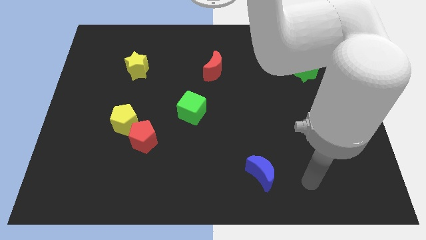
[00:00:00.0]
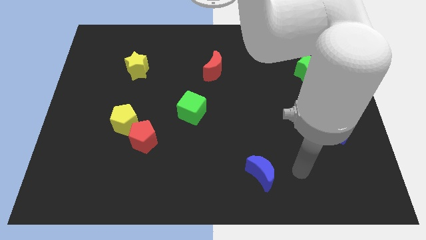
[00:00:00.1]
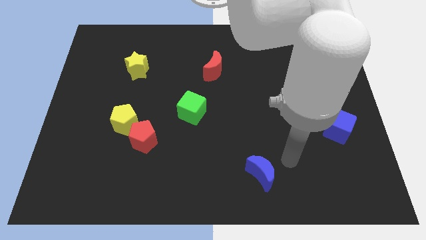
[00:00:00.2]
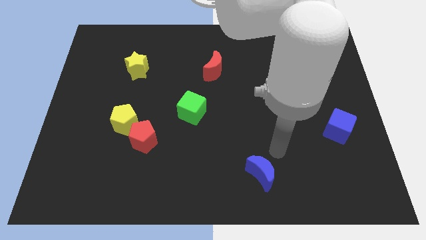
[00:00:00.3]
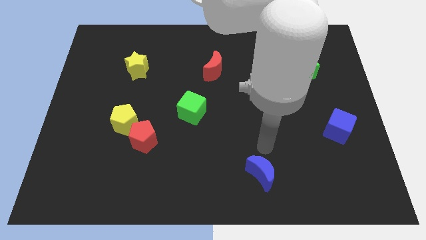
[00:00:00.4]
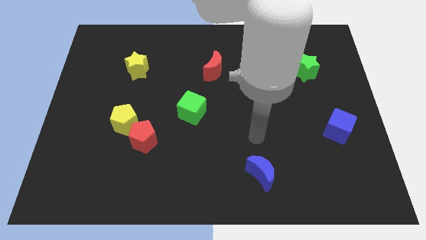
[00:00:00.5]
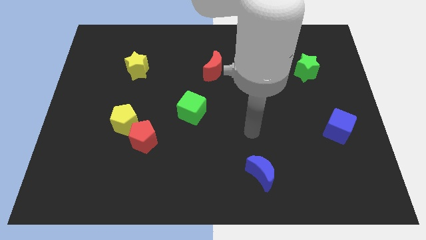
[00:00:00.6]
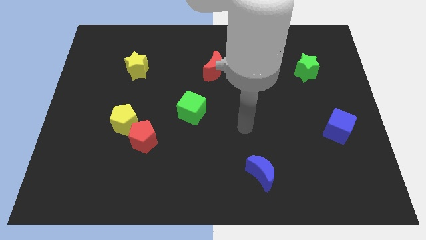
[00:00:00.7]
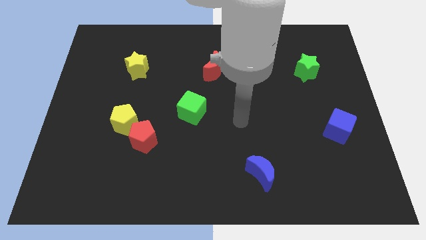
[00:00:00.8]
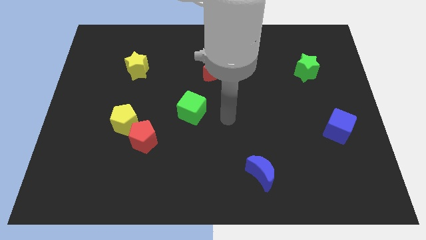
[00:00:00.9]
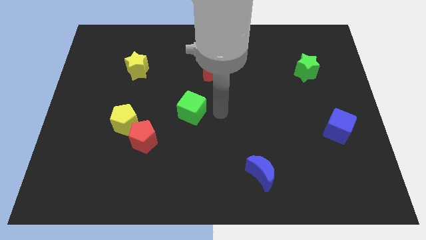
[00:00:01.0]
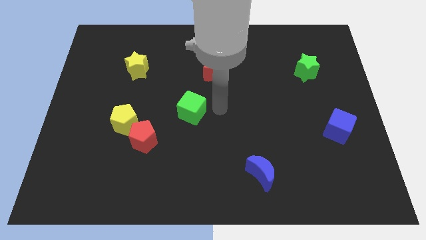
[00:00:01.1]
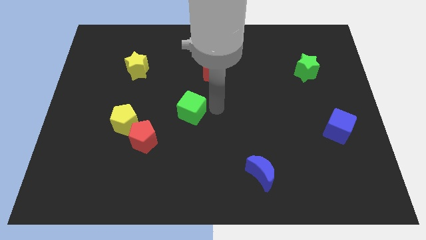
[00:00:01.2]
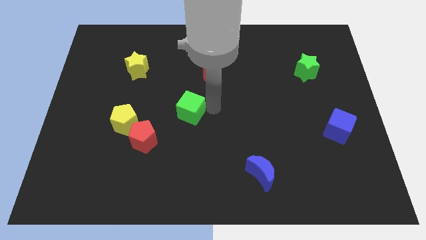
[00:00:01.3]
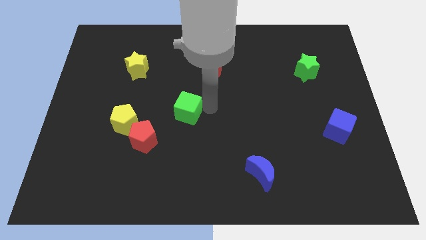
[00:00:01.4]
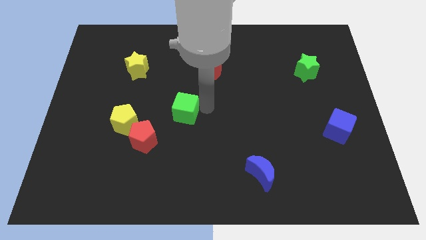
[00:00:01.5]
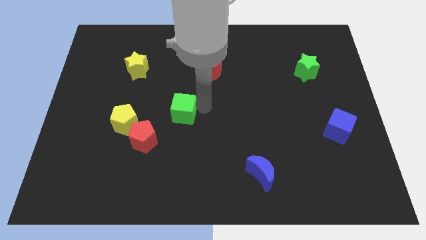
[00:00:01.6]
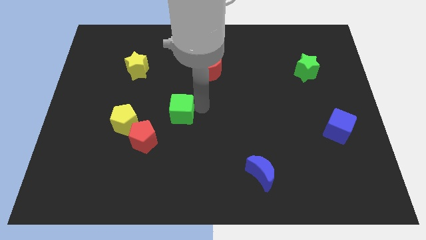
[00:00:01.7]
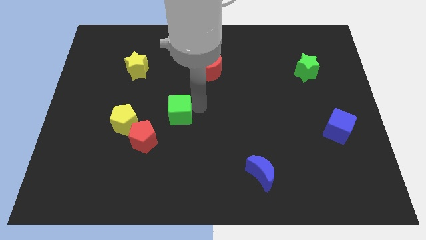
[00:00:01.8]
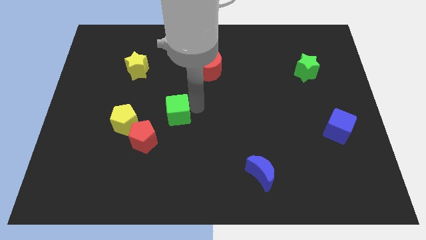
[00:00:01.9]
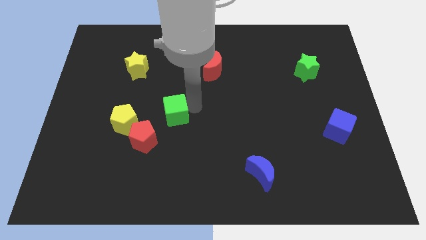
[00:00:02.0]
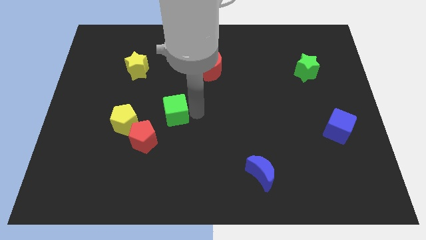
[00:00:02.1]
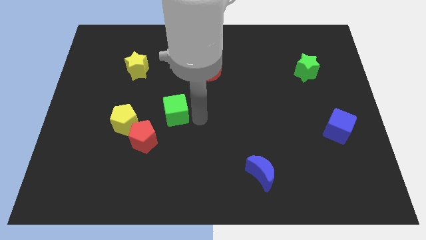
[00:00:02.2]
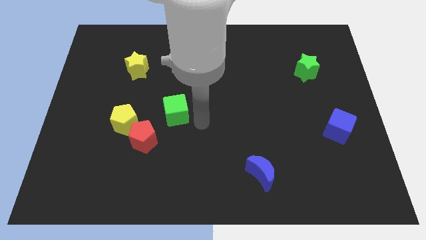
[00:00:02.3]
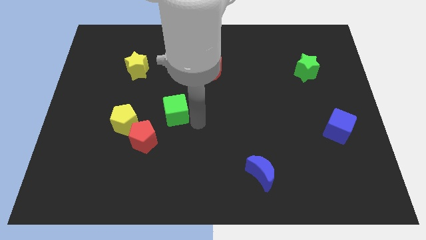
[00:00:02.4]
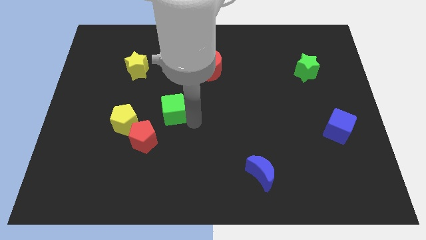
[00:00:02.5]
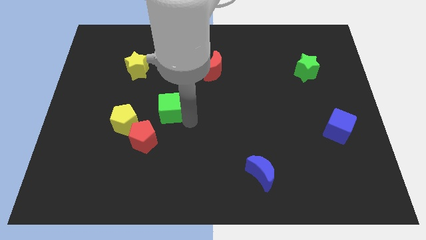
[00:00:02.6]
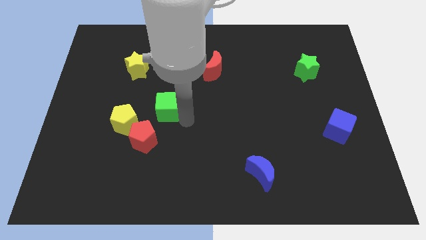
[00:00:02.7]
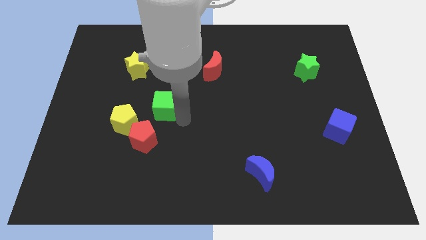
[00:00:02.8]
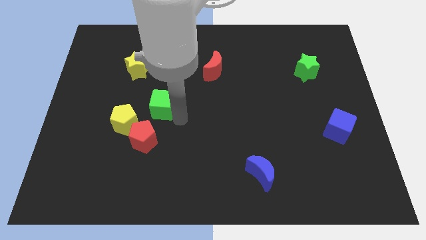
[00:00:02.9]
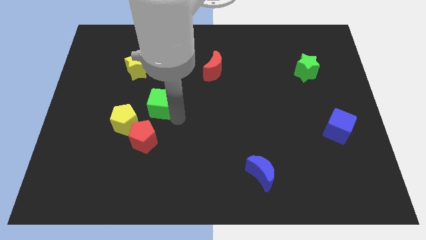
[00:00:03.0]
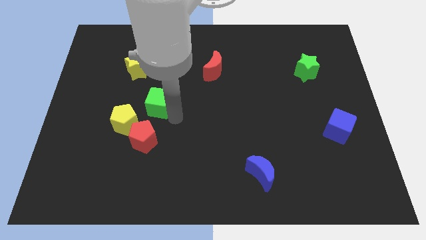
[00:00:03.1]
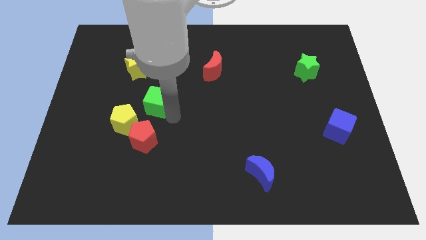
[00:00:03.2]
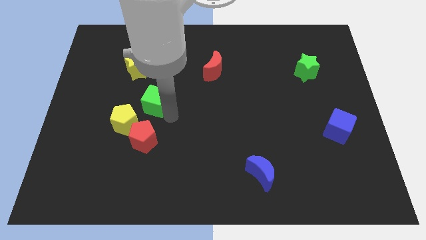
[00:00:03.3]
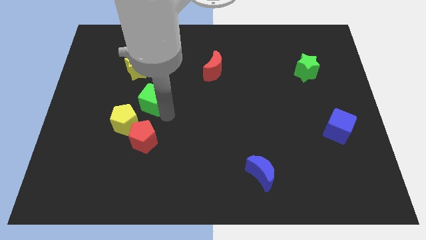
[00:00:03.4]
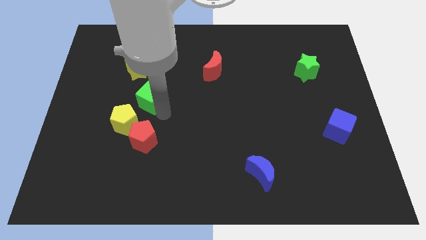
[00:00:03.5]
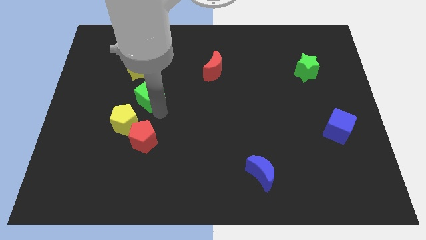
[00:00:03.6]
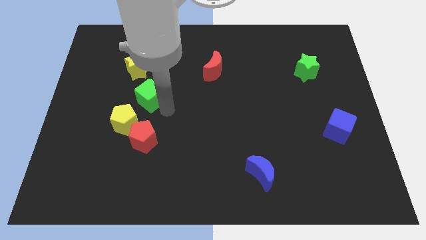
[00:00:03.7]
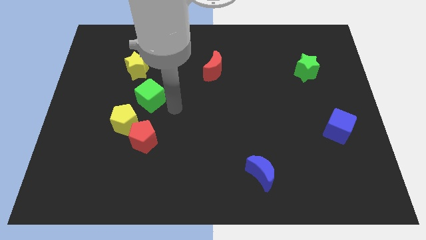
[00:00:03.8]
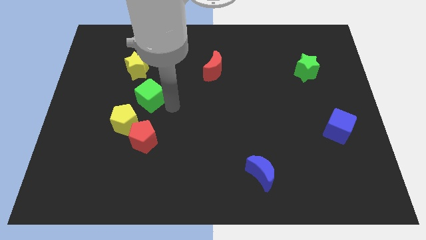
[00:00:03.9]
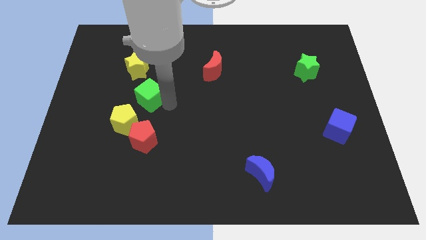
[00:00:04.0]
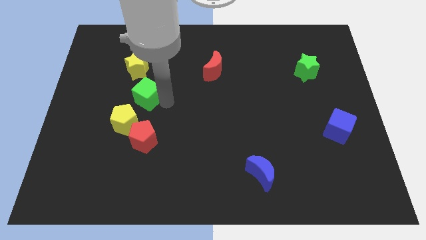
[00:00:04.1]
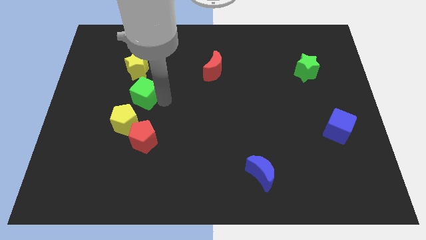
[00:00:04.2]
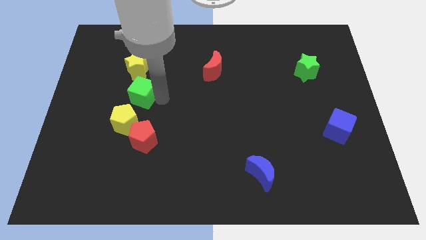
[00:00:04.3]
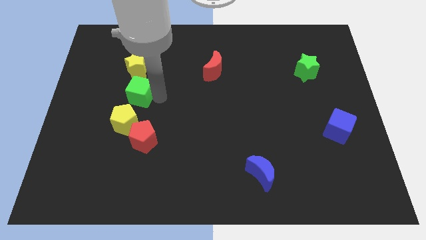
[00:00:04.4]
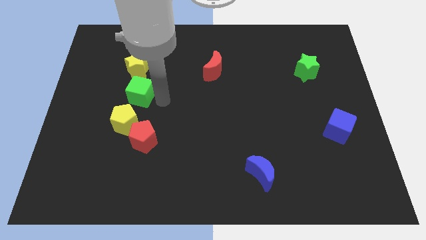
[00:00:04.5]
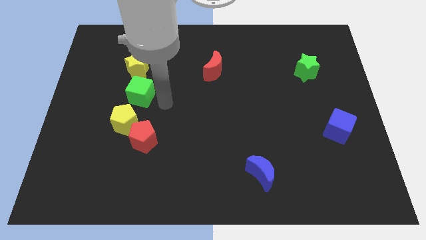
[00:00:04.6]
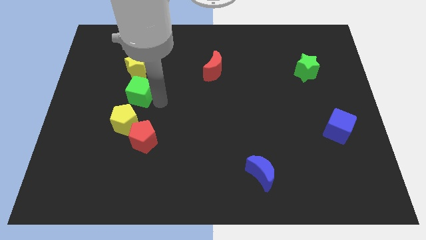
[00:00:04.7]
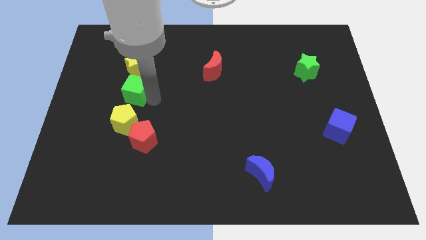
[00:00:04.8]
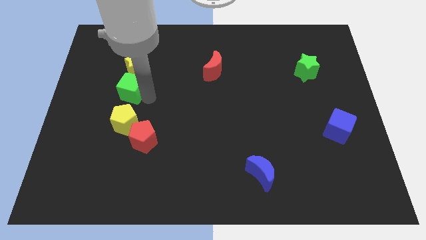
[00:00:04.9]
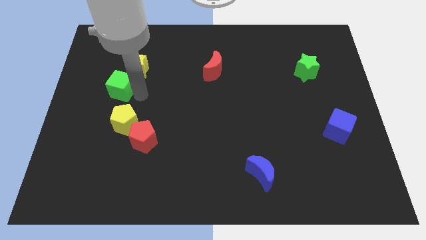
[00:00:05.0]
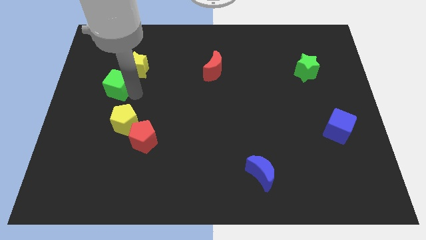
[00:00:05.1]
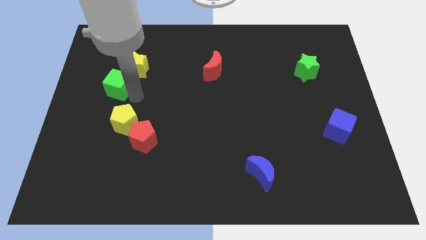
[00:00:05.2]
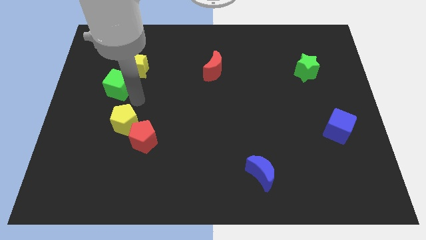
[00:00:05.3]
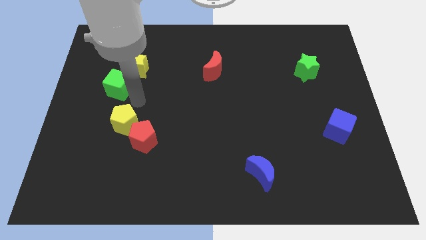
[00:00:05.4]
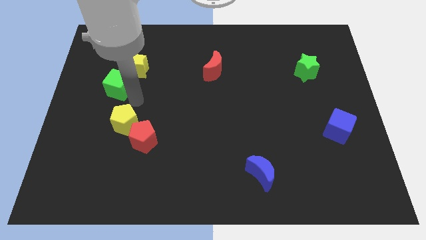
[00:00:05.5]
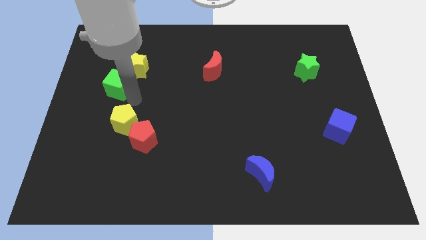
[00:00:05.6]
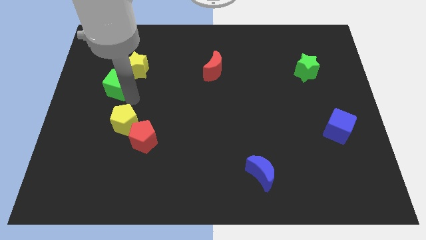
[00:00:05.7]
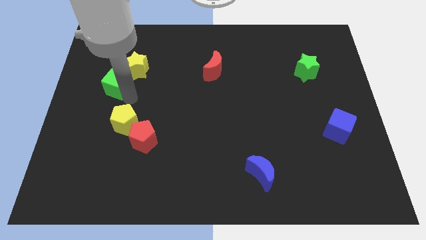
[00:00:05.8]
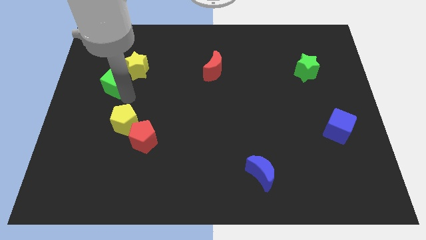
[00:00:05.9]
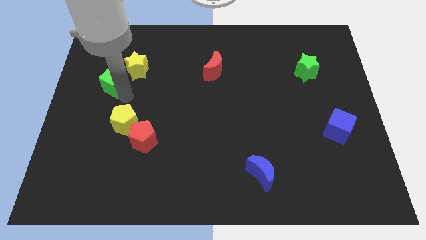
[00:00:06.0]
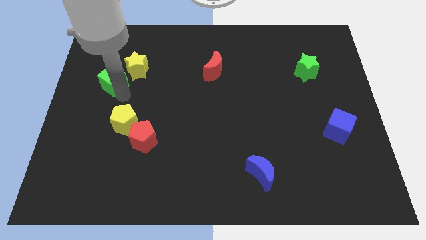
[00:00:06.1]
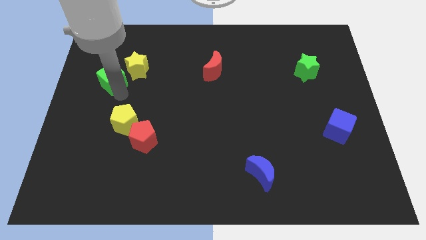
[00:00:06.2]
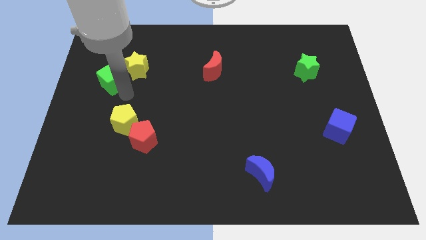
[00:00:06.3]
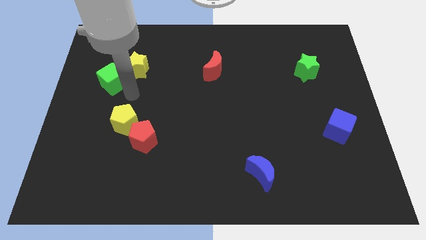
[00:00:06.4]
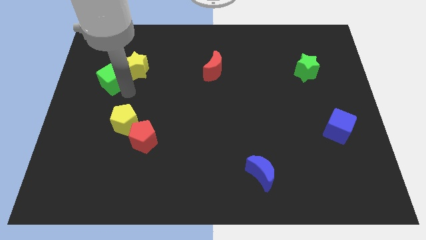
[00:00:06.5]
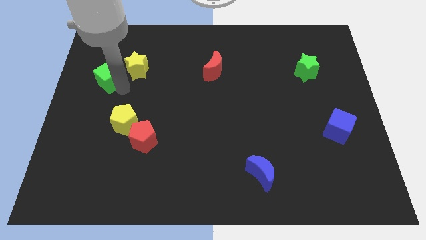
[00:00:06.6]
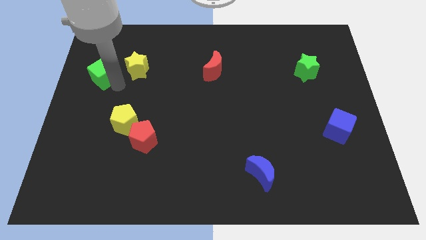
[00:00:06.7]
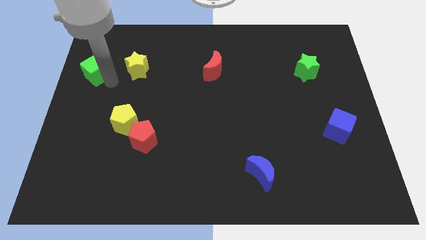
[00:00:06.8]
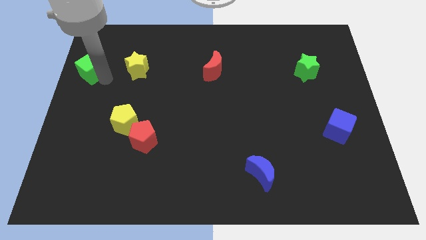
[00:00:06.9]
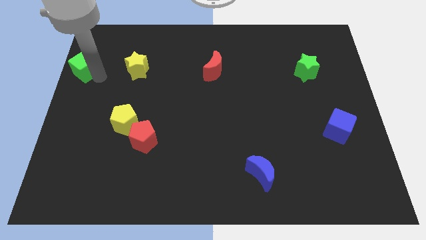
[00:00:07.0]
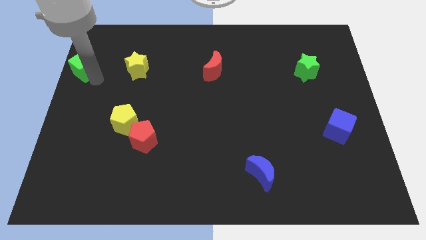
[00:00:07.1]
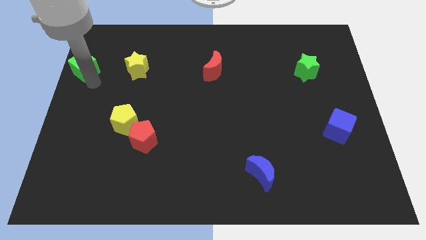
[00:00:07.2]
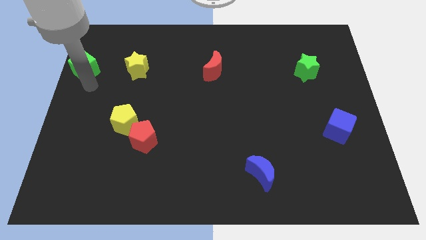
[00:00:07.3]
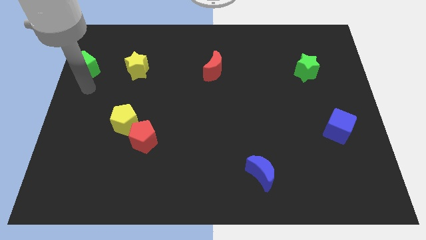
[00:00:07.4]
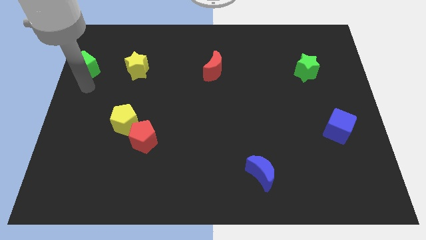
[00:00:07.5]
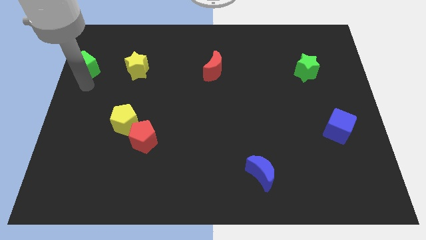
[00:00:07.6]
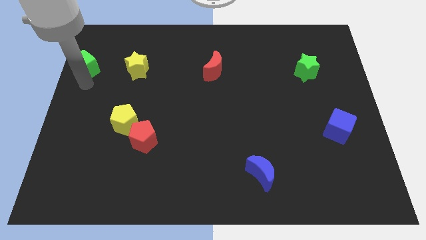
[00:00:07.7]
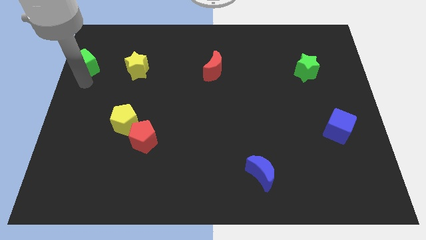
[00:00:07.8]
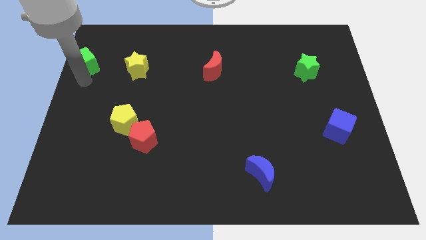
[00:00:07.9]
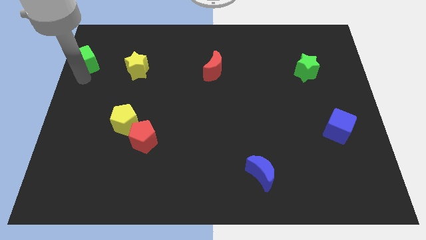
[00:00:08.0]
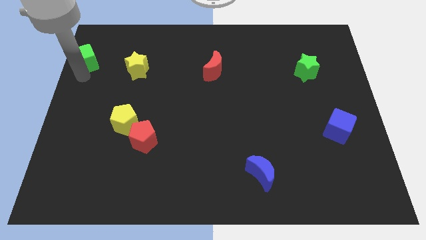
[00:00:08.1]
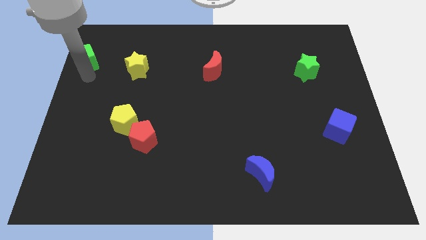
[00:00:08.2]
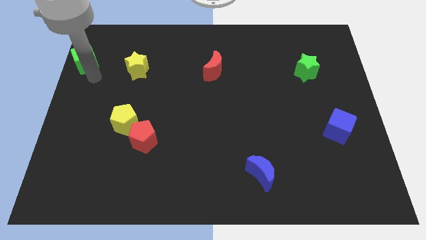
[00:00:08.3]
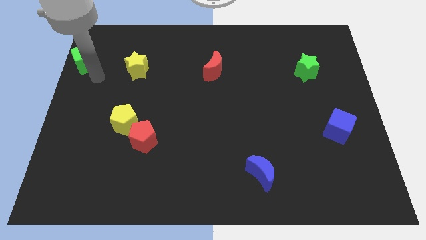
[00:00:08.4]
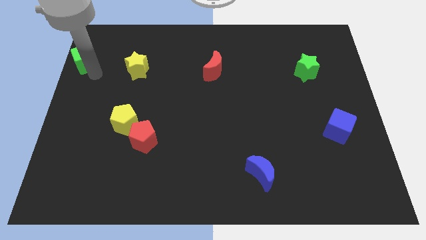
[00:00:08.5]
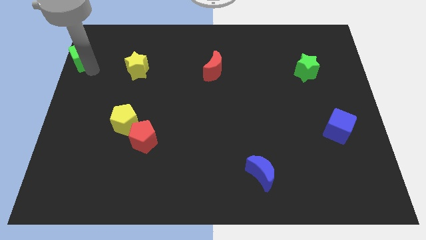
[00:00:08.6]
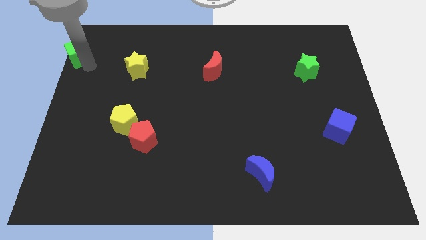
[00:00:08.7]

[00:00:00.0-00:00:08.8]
slide the green cube to the upper left corner
